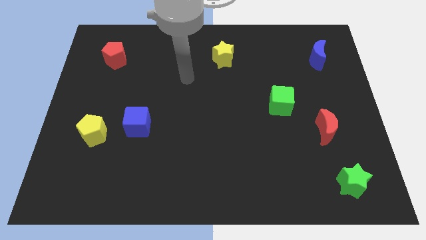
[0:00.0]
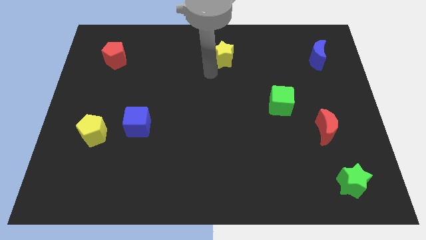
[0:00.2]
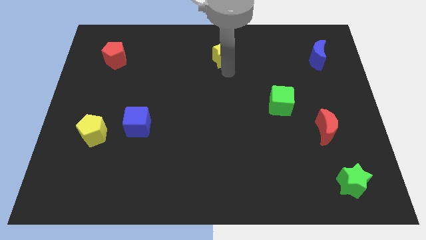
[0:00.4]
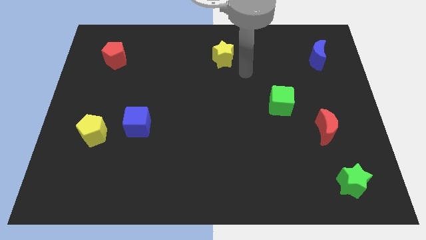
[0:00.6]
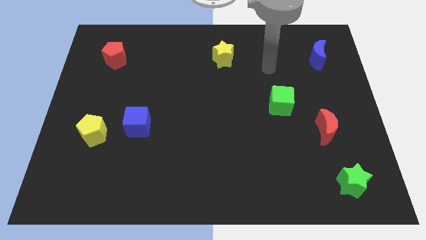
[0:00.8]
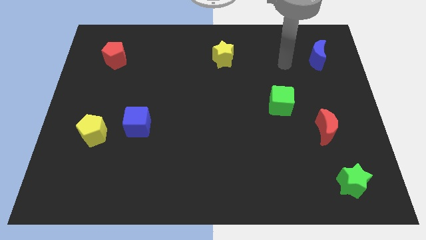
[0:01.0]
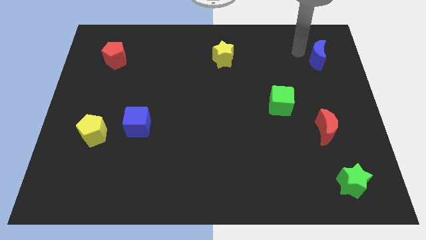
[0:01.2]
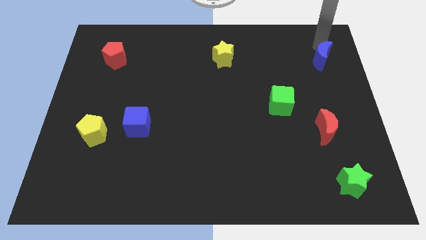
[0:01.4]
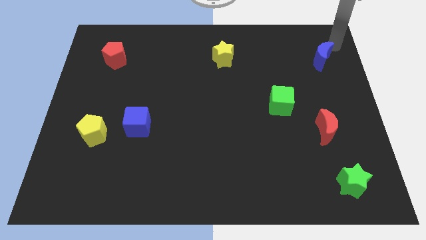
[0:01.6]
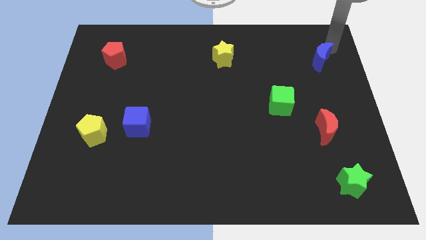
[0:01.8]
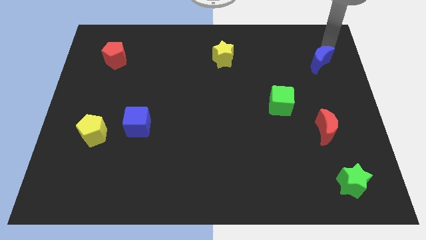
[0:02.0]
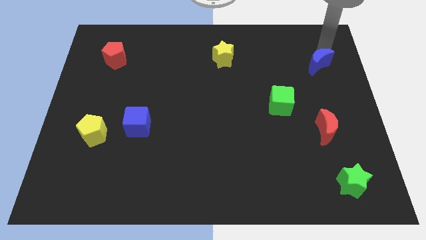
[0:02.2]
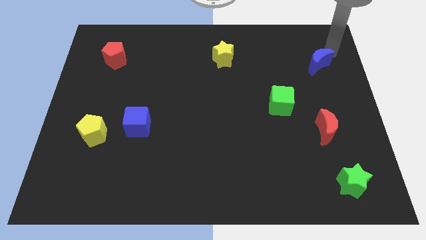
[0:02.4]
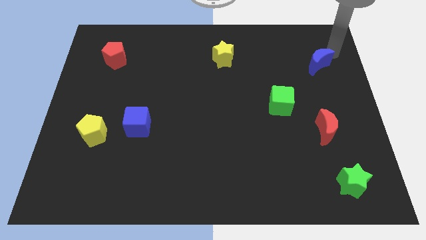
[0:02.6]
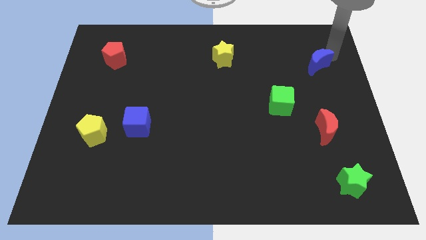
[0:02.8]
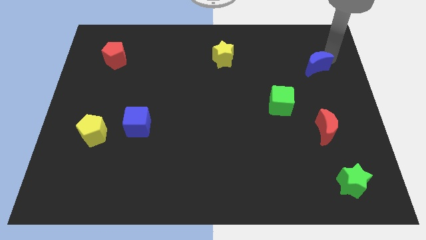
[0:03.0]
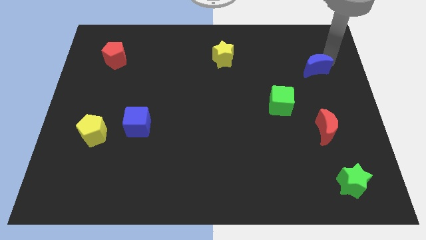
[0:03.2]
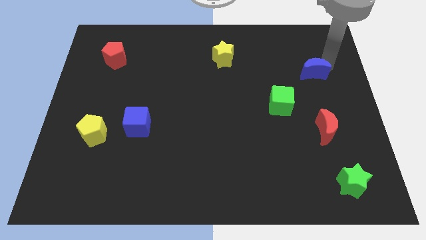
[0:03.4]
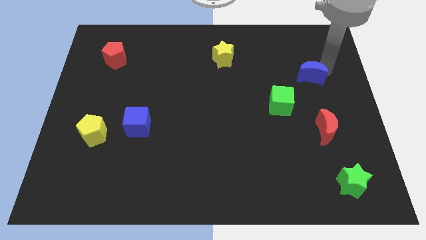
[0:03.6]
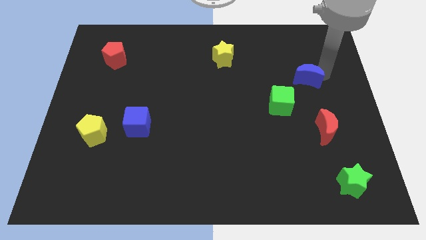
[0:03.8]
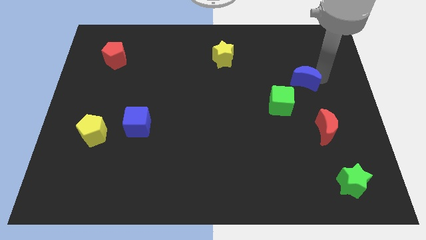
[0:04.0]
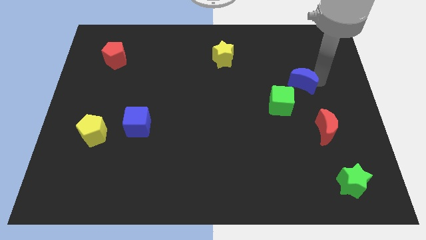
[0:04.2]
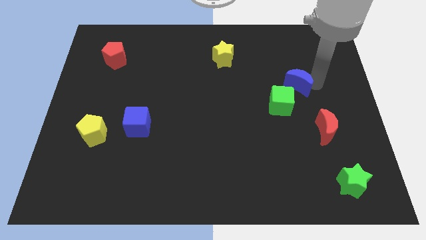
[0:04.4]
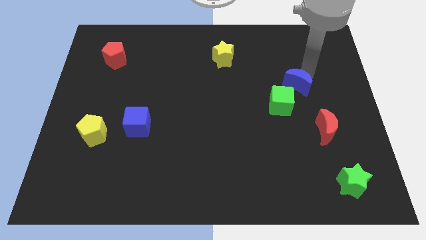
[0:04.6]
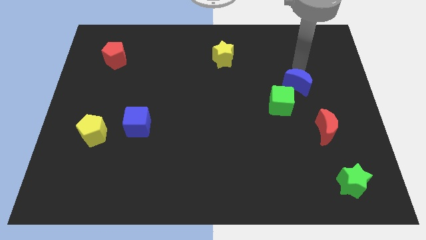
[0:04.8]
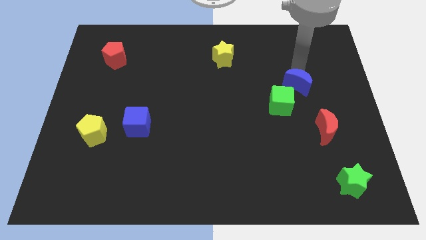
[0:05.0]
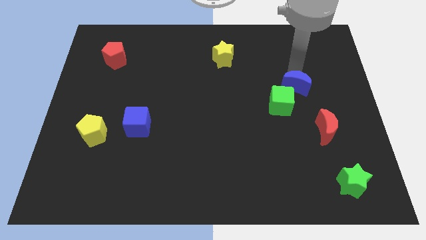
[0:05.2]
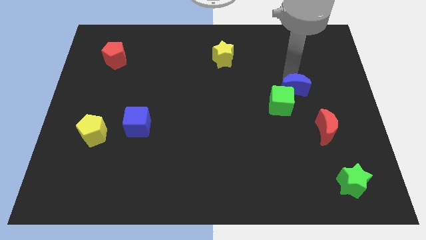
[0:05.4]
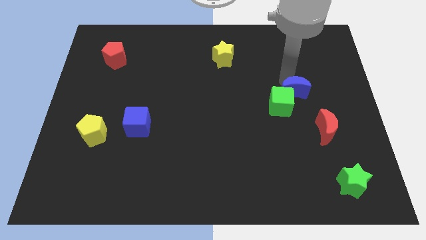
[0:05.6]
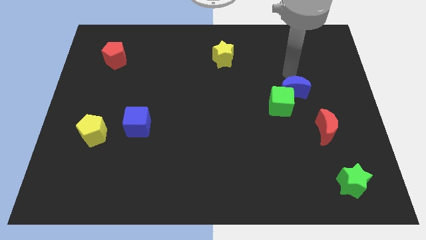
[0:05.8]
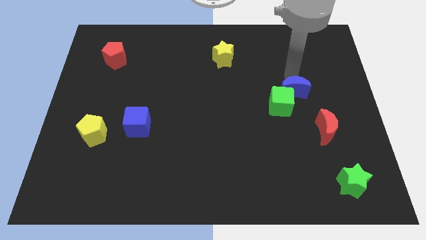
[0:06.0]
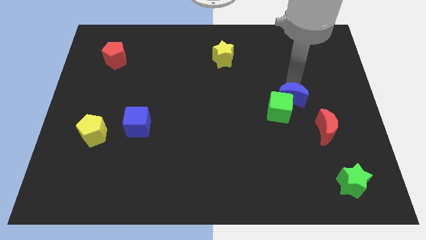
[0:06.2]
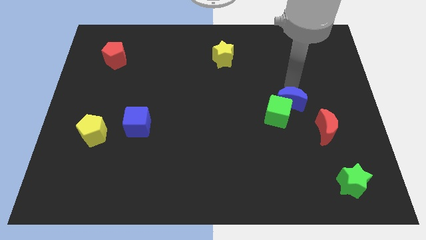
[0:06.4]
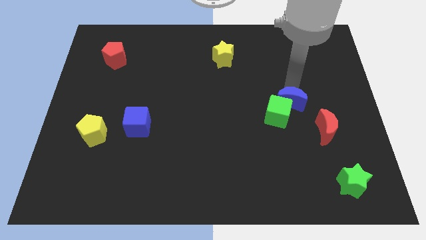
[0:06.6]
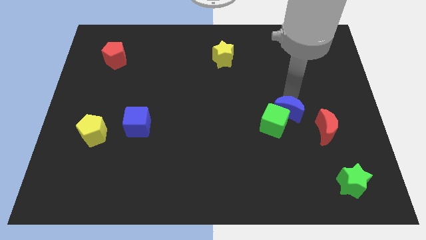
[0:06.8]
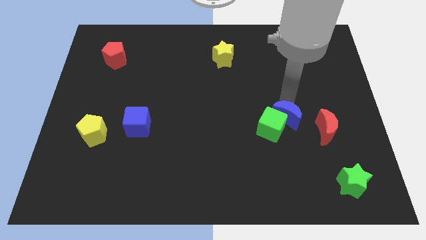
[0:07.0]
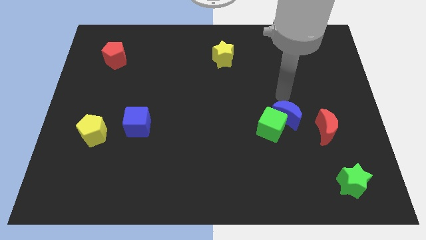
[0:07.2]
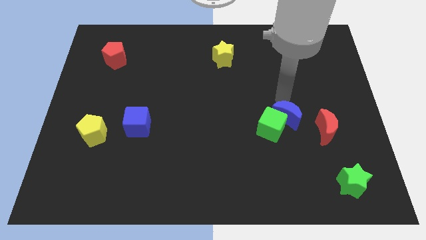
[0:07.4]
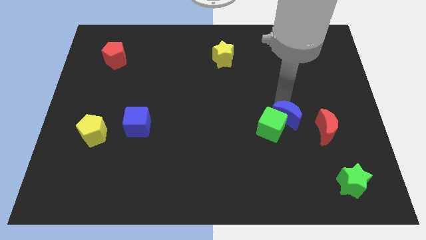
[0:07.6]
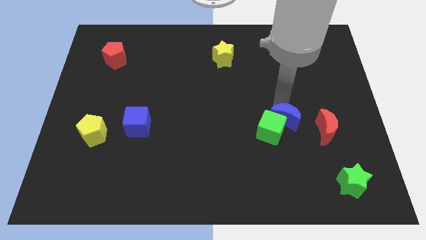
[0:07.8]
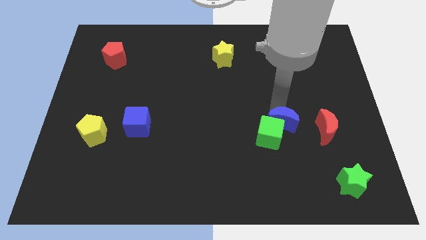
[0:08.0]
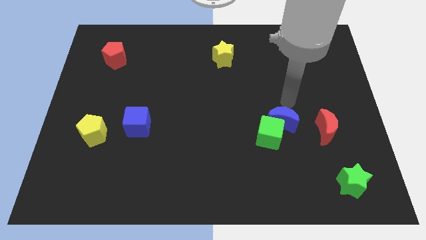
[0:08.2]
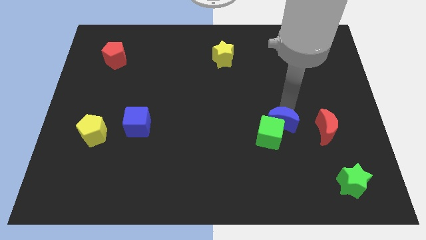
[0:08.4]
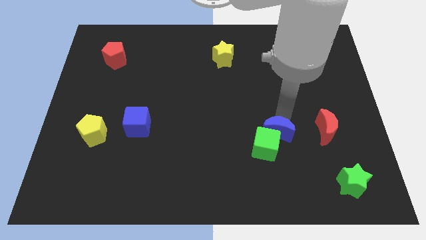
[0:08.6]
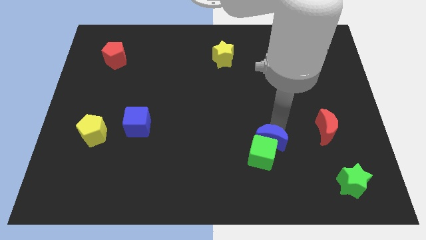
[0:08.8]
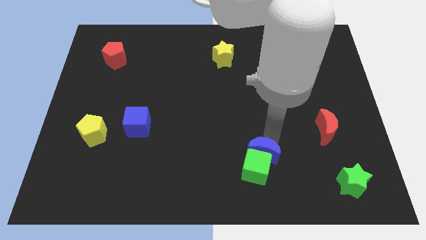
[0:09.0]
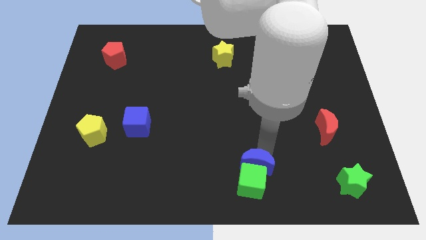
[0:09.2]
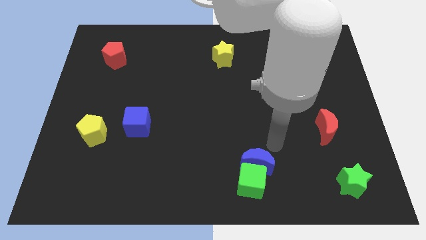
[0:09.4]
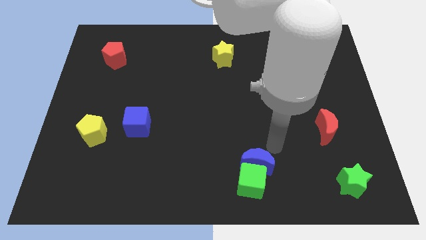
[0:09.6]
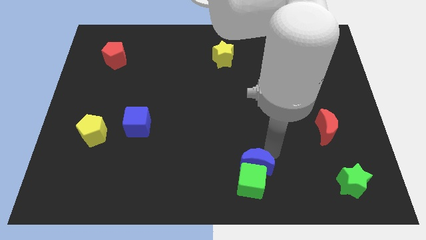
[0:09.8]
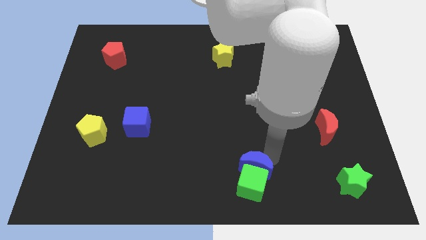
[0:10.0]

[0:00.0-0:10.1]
put the blue moon to the bottom

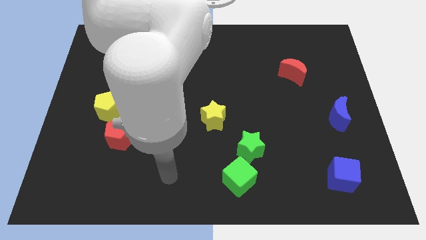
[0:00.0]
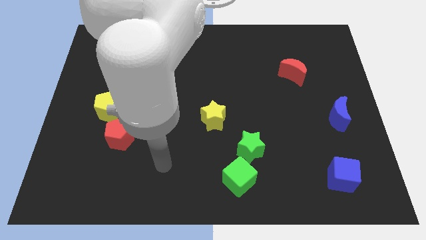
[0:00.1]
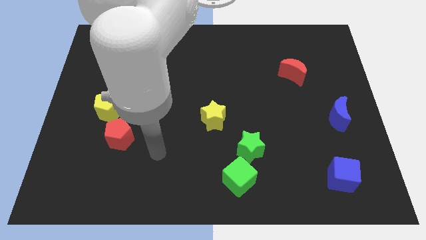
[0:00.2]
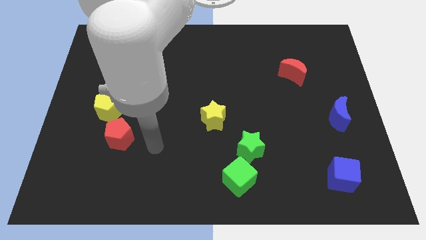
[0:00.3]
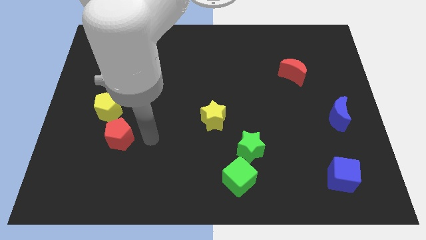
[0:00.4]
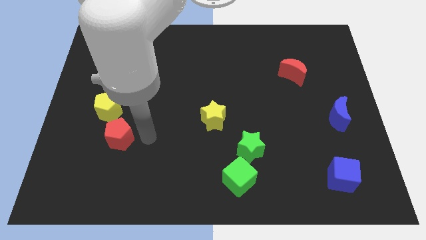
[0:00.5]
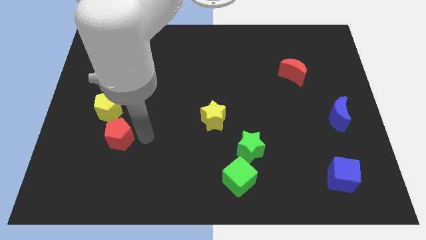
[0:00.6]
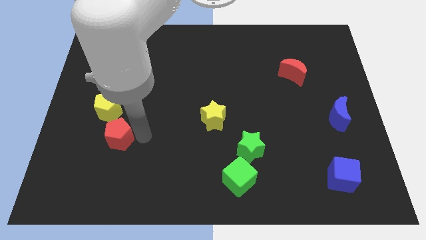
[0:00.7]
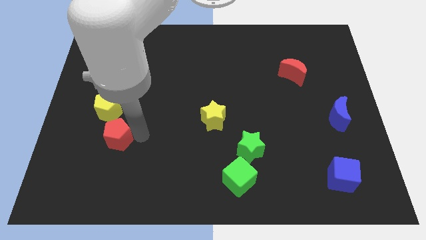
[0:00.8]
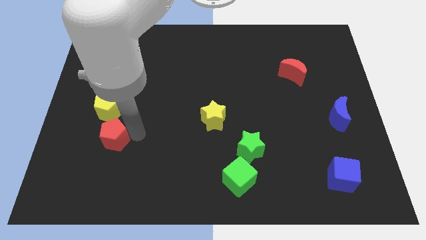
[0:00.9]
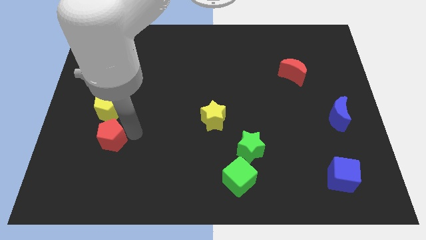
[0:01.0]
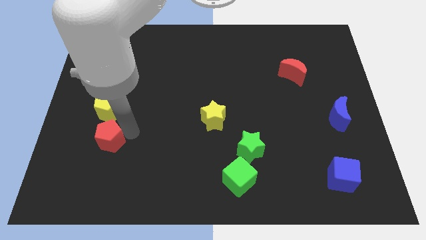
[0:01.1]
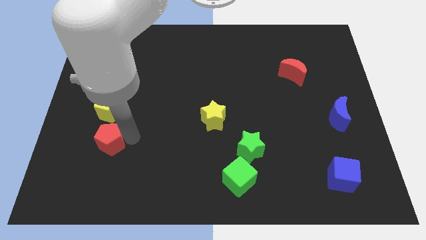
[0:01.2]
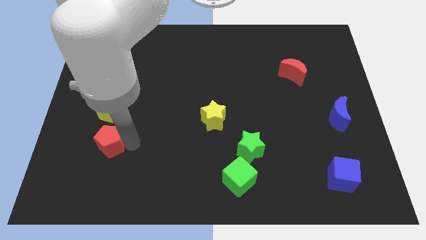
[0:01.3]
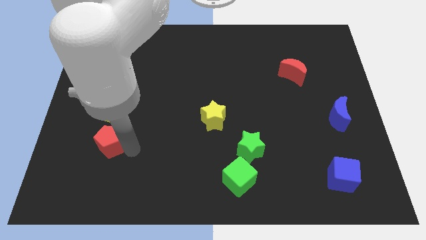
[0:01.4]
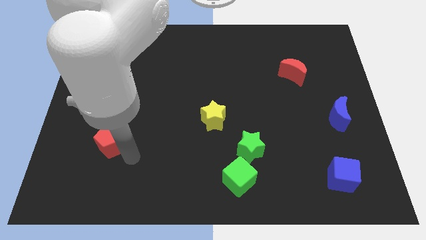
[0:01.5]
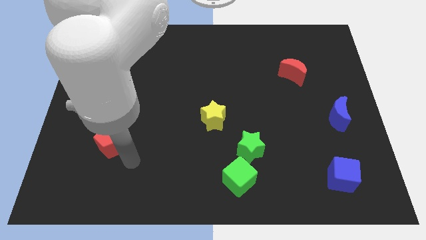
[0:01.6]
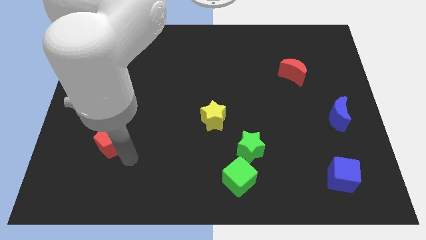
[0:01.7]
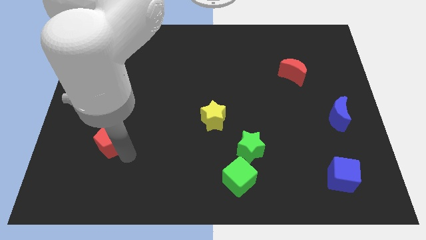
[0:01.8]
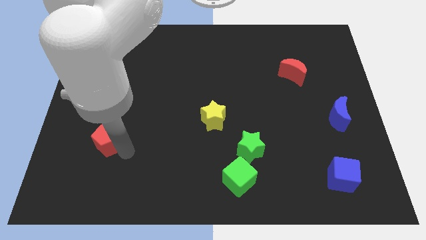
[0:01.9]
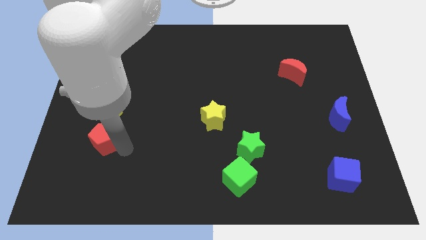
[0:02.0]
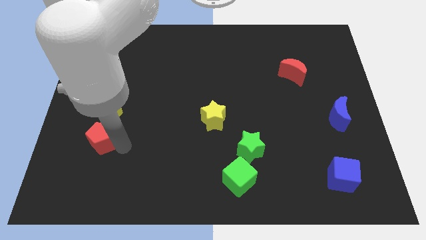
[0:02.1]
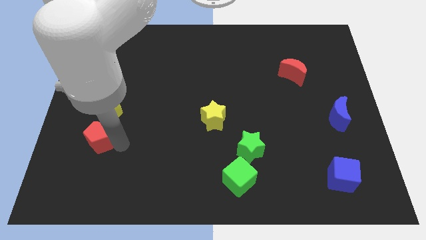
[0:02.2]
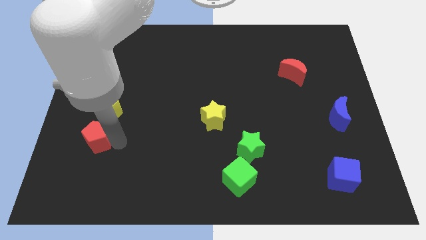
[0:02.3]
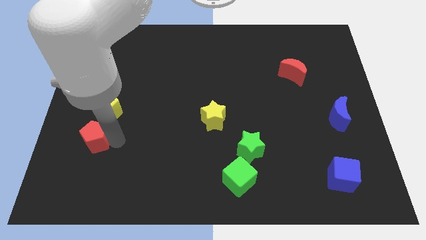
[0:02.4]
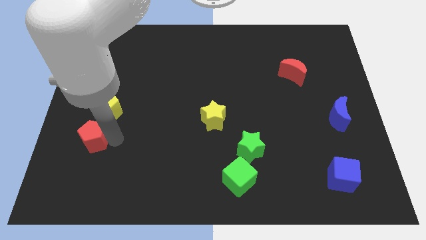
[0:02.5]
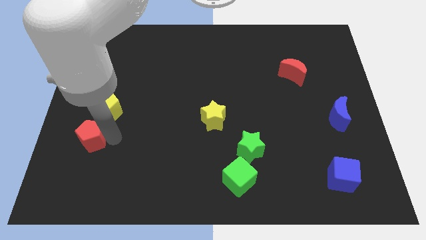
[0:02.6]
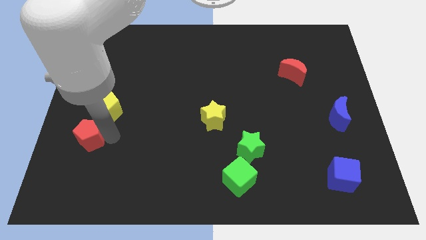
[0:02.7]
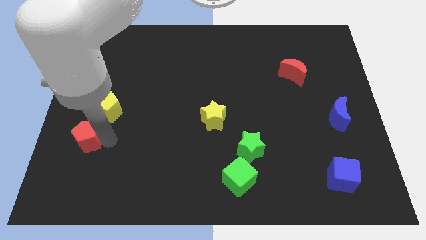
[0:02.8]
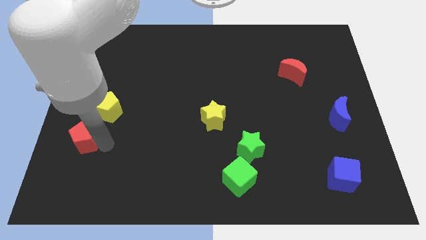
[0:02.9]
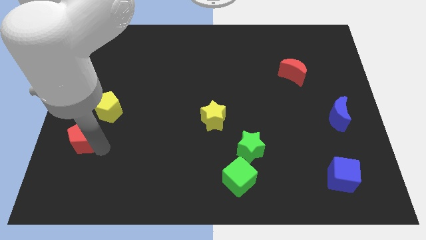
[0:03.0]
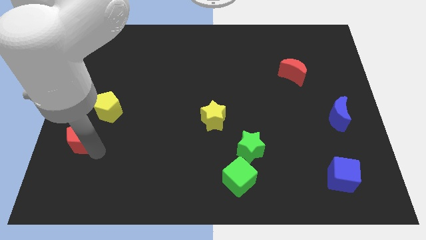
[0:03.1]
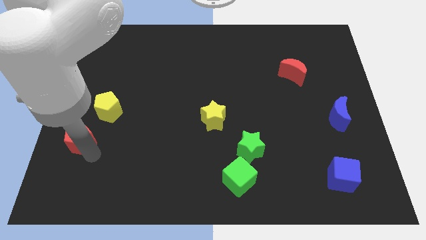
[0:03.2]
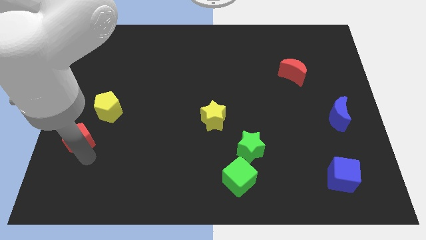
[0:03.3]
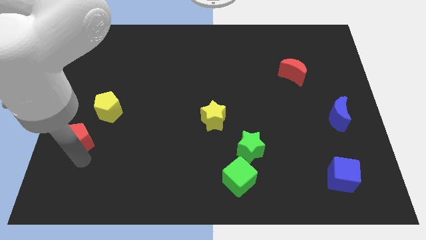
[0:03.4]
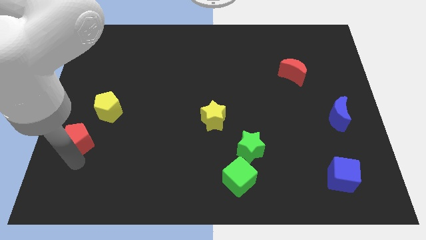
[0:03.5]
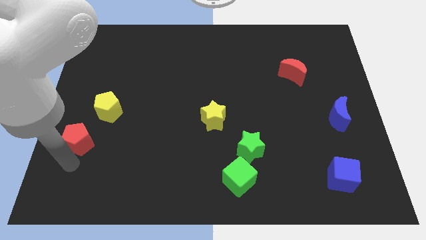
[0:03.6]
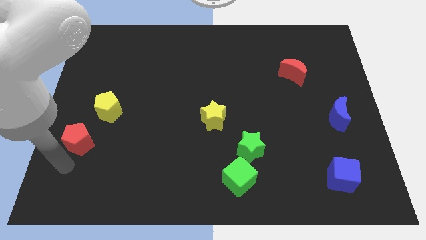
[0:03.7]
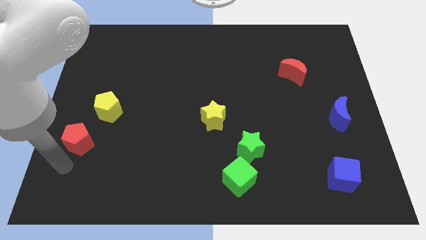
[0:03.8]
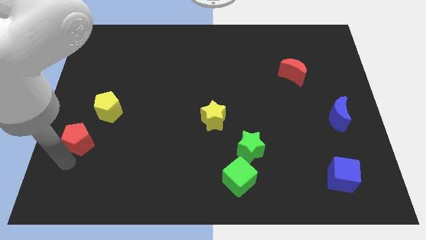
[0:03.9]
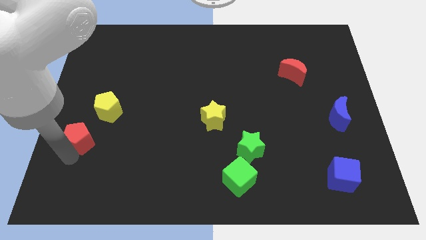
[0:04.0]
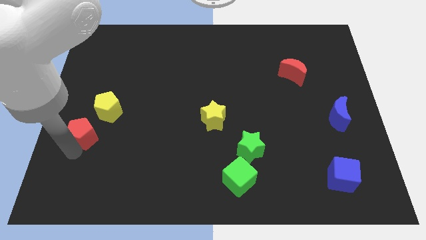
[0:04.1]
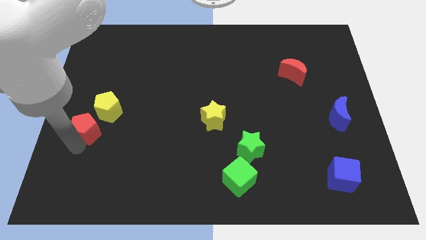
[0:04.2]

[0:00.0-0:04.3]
move the red pentagon to the center left
